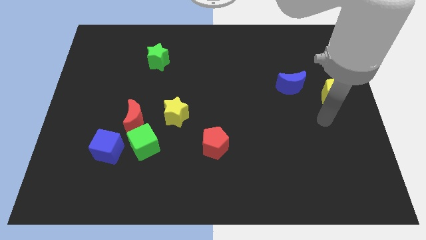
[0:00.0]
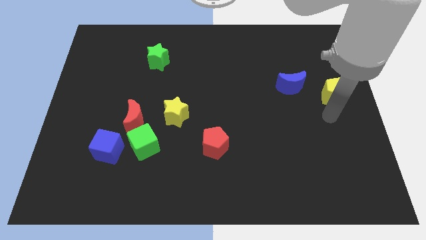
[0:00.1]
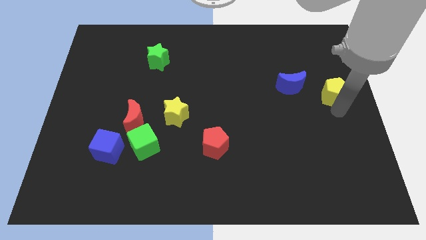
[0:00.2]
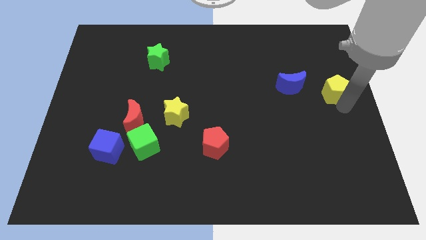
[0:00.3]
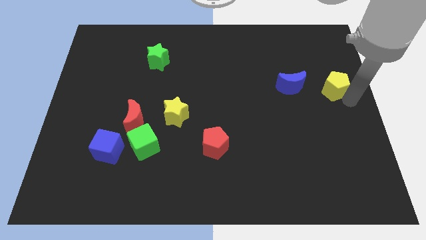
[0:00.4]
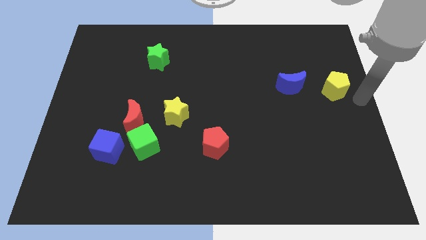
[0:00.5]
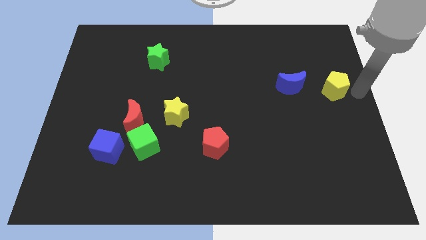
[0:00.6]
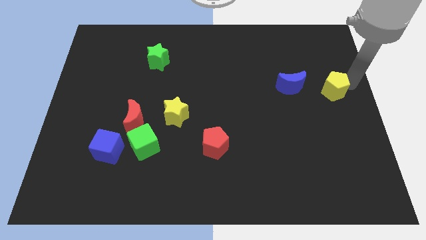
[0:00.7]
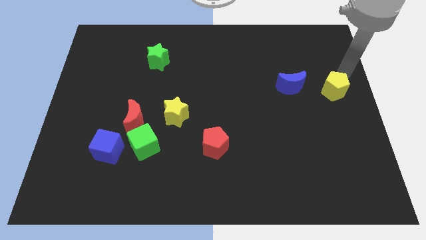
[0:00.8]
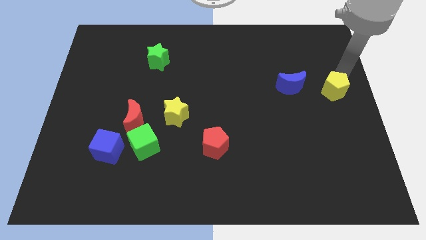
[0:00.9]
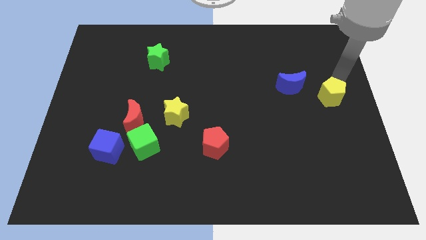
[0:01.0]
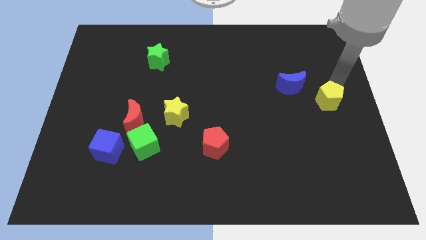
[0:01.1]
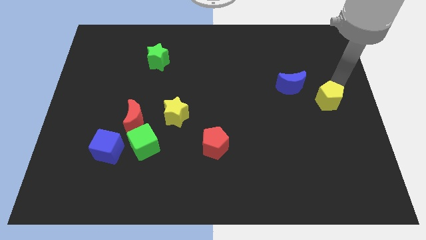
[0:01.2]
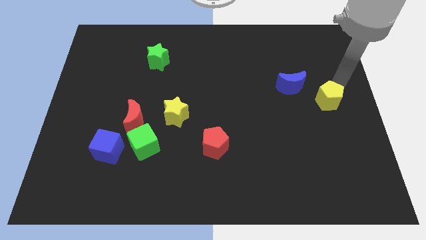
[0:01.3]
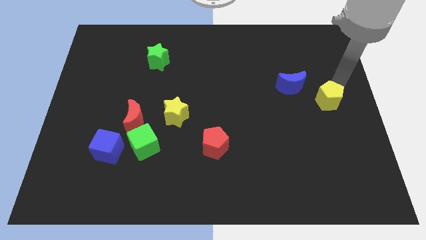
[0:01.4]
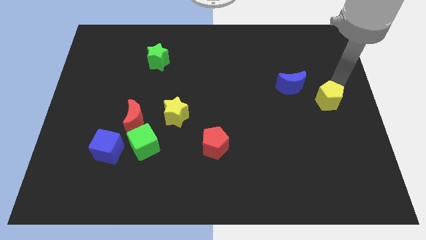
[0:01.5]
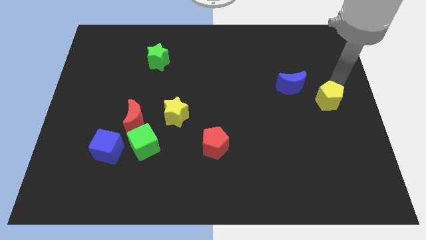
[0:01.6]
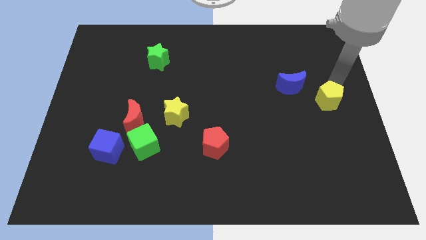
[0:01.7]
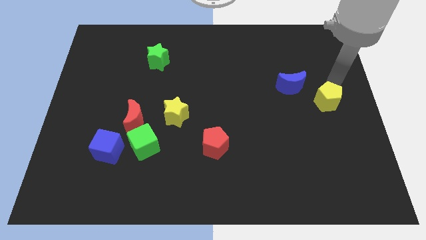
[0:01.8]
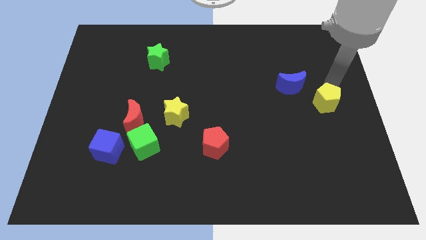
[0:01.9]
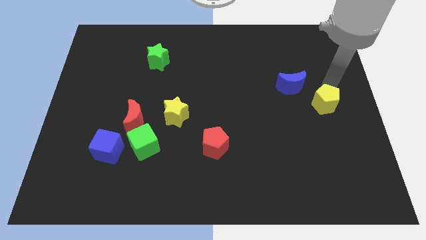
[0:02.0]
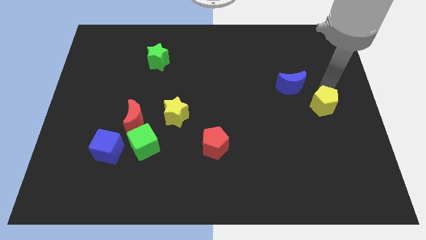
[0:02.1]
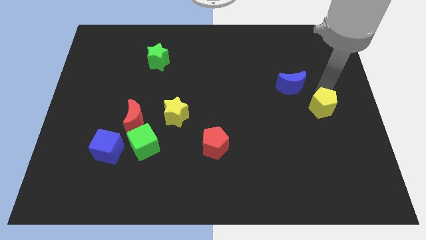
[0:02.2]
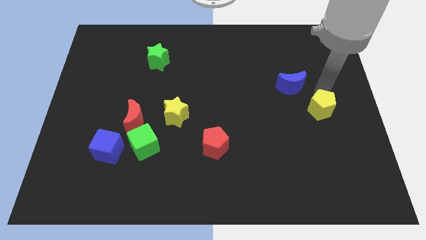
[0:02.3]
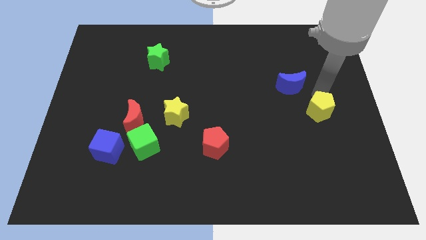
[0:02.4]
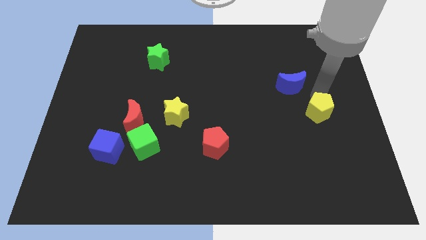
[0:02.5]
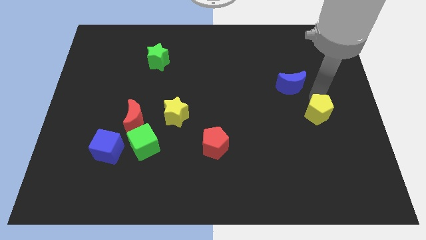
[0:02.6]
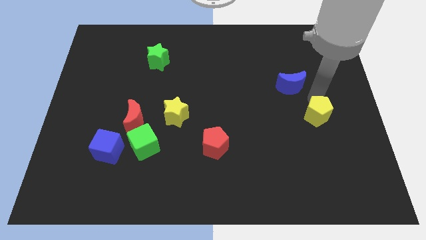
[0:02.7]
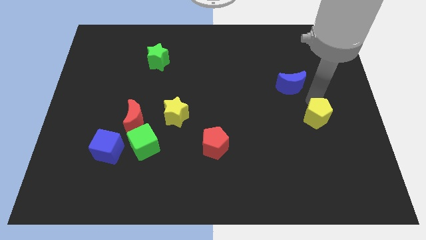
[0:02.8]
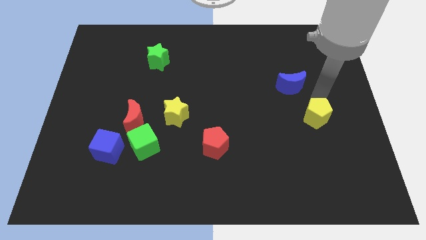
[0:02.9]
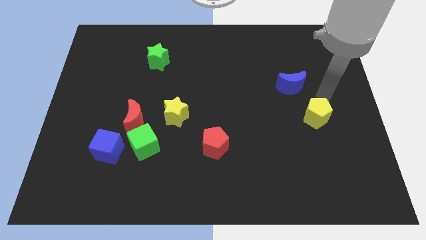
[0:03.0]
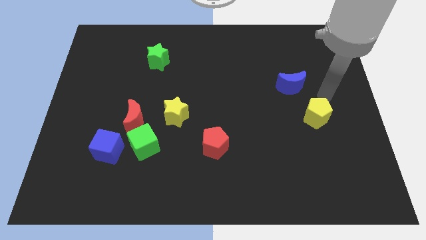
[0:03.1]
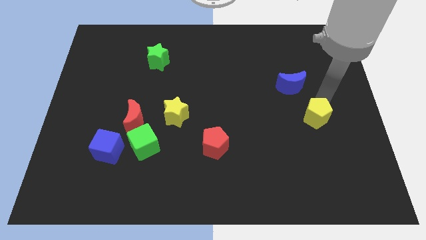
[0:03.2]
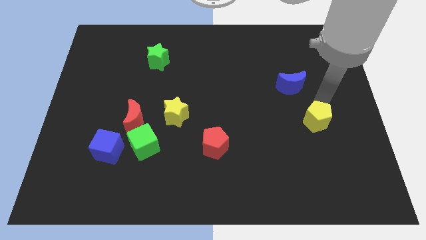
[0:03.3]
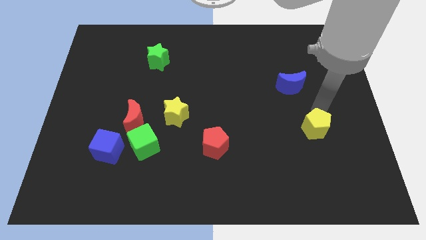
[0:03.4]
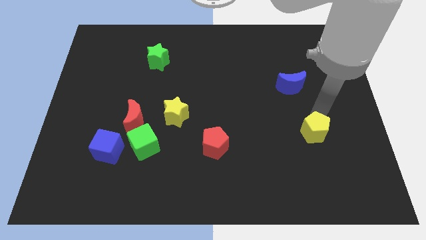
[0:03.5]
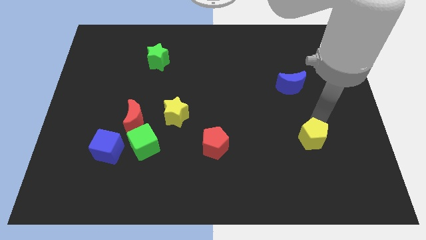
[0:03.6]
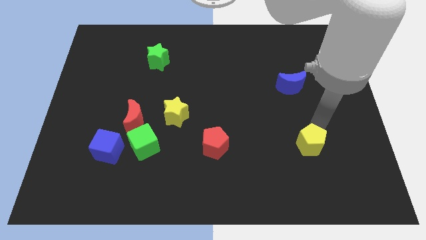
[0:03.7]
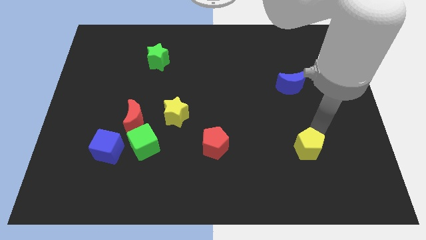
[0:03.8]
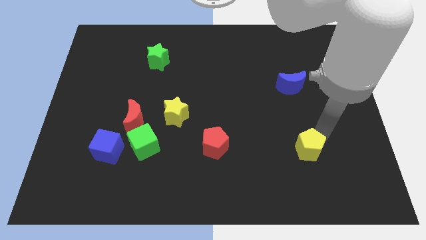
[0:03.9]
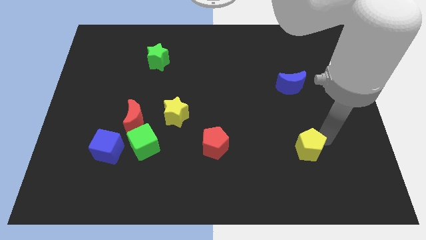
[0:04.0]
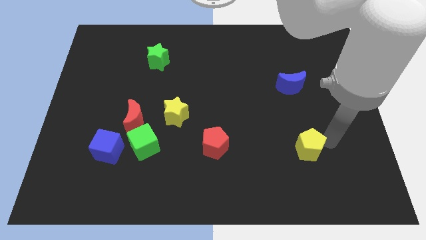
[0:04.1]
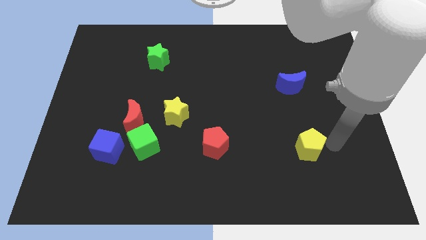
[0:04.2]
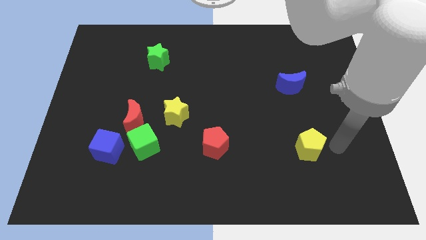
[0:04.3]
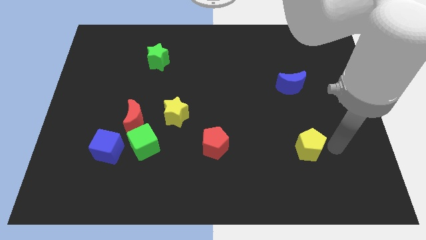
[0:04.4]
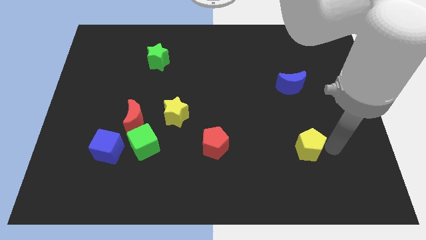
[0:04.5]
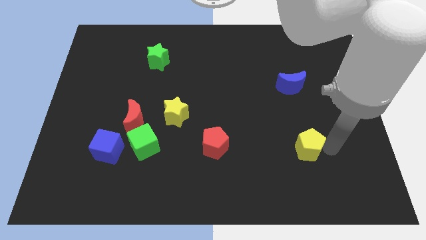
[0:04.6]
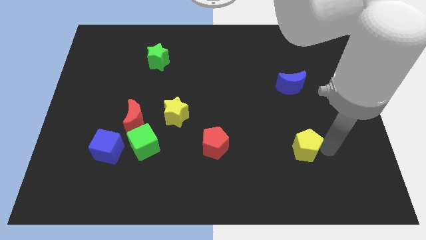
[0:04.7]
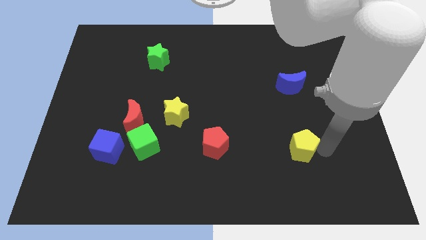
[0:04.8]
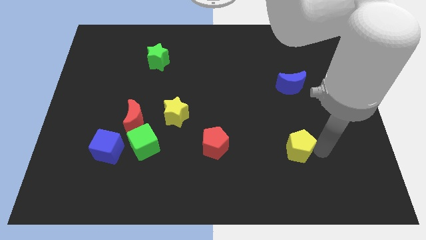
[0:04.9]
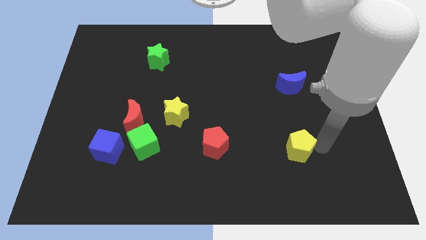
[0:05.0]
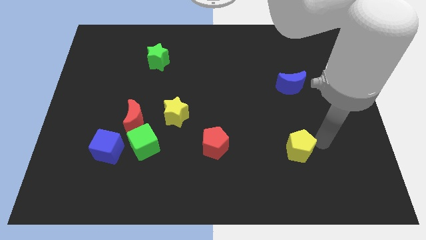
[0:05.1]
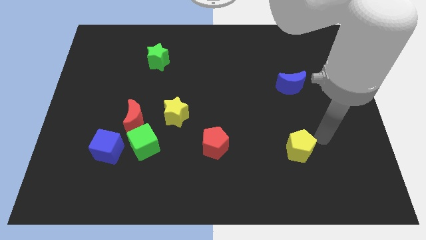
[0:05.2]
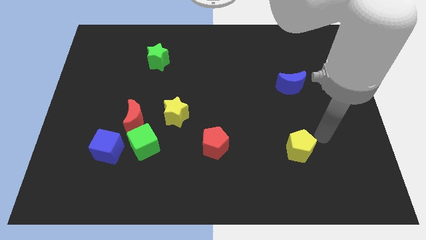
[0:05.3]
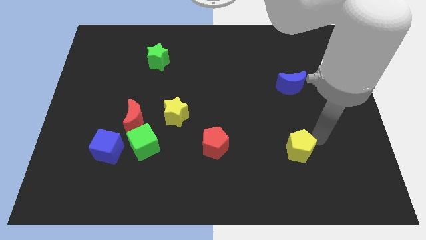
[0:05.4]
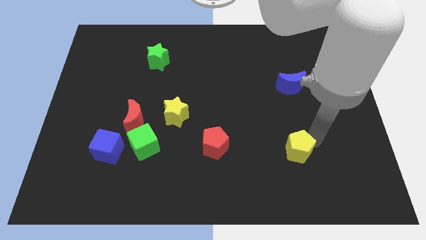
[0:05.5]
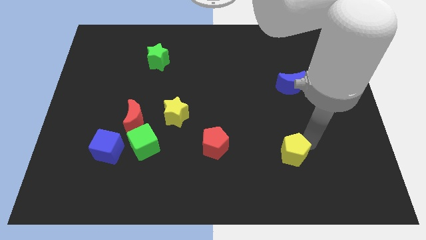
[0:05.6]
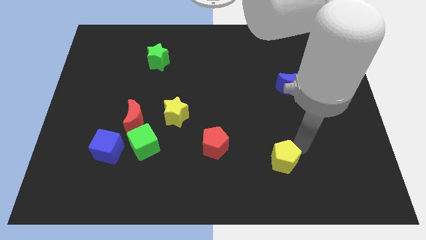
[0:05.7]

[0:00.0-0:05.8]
slide the yellow pentagon down and to the left

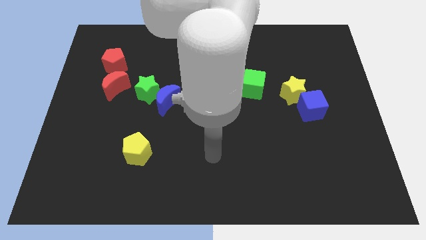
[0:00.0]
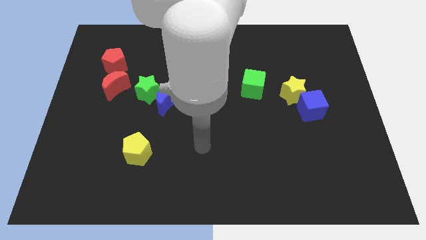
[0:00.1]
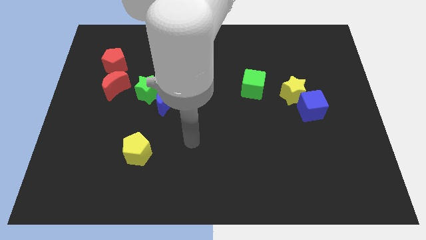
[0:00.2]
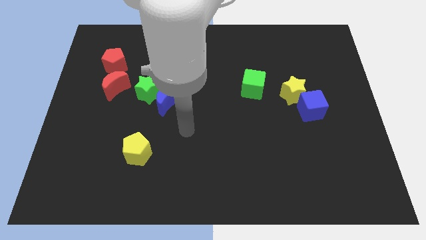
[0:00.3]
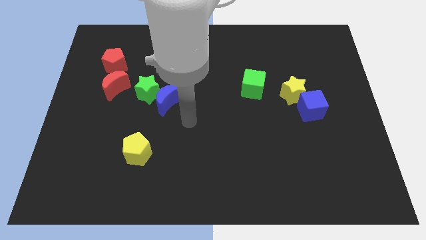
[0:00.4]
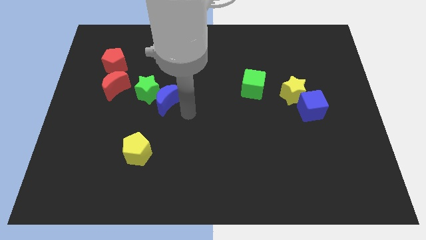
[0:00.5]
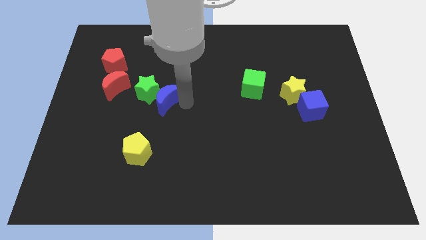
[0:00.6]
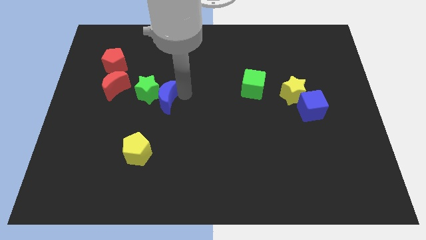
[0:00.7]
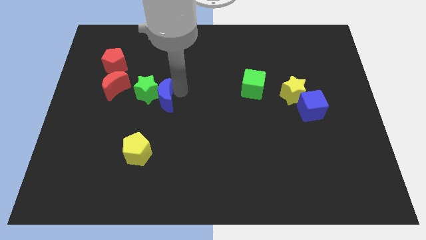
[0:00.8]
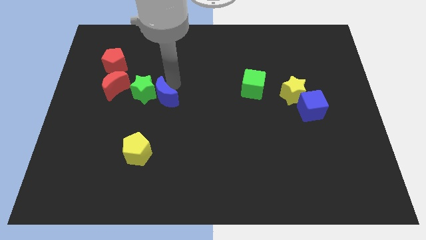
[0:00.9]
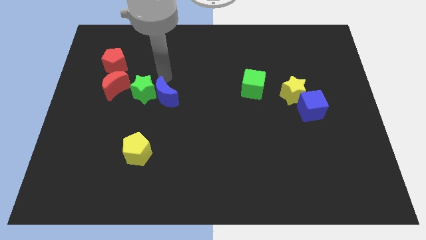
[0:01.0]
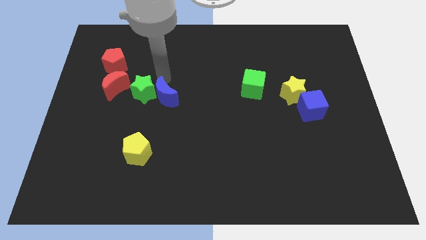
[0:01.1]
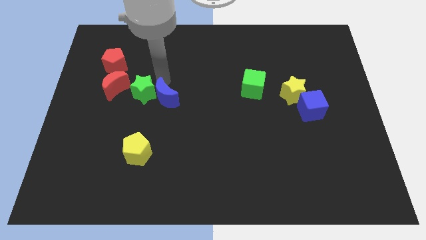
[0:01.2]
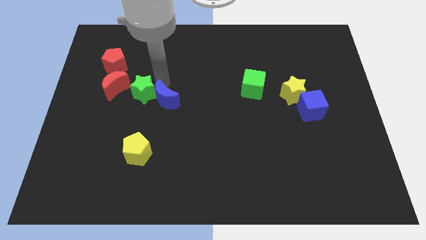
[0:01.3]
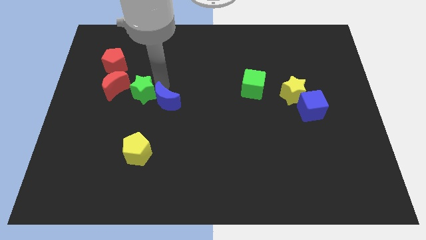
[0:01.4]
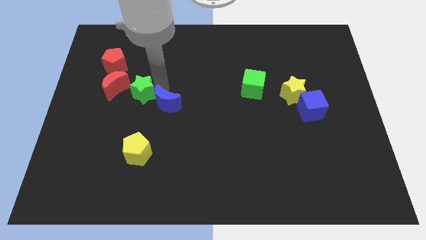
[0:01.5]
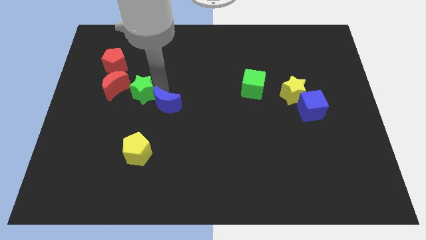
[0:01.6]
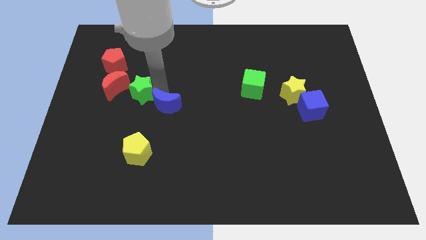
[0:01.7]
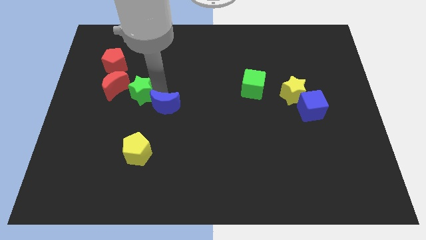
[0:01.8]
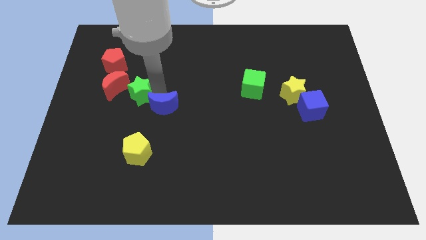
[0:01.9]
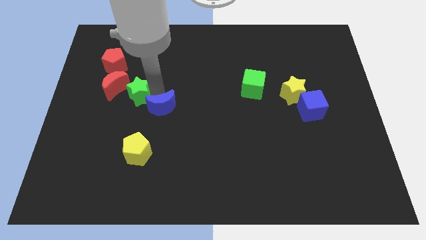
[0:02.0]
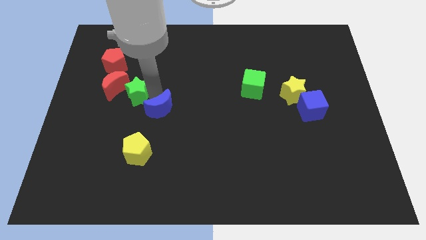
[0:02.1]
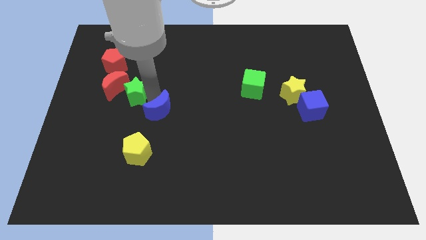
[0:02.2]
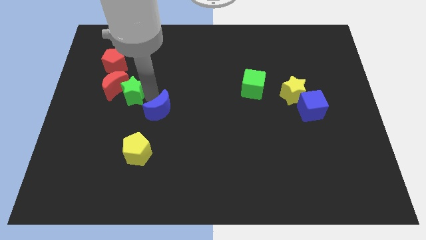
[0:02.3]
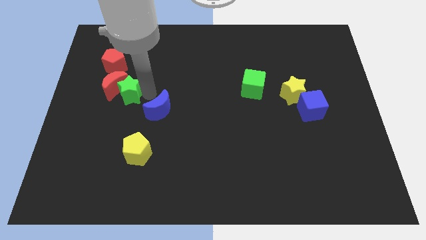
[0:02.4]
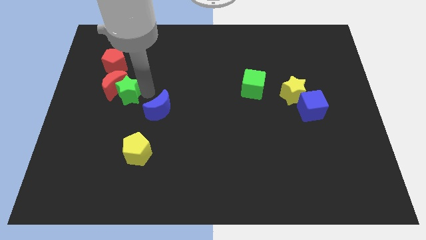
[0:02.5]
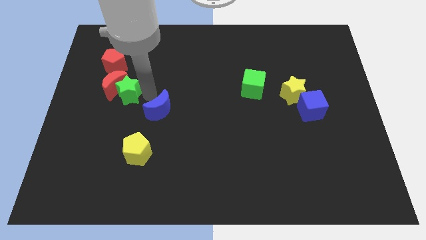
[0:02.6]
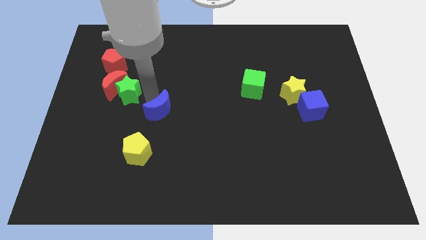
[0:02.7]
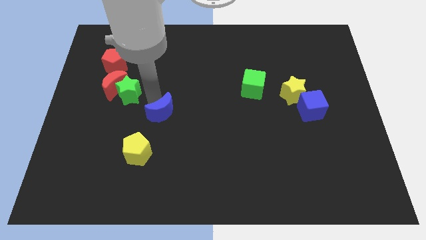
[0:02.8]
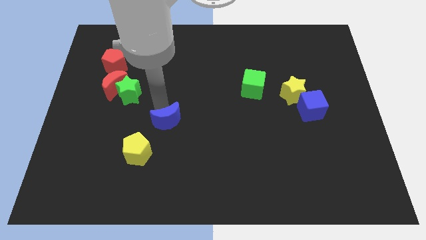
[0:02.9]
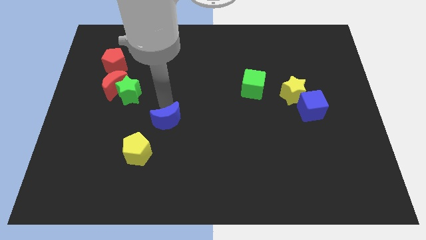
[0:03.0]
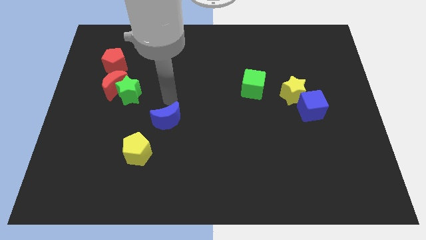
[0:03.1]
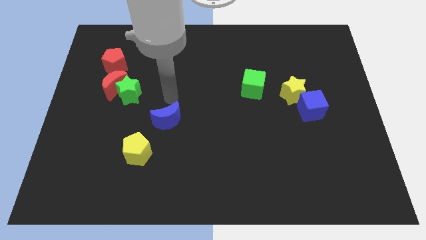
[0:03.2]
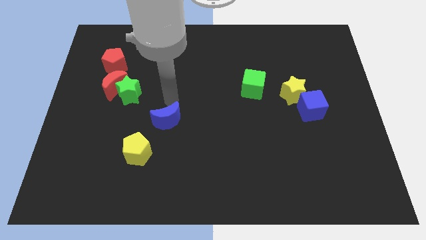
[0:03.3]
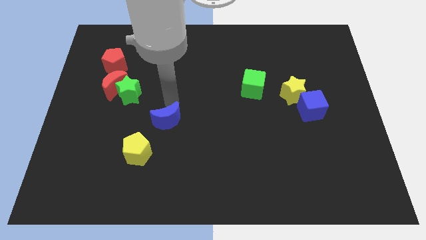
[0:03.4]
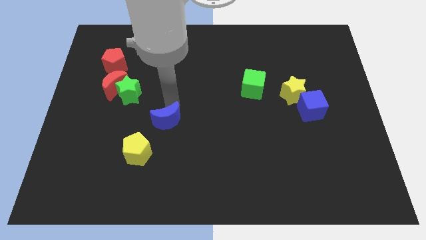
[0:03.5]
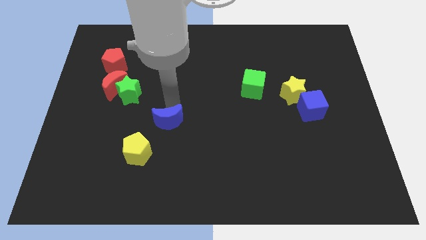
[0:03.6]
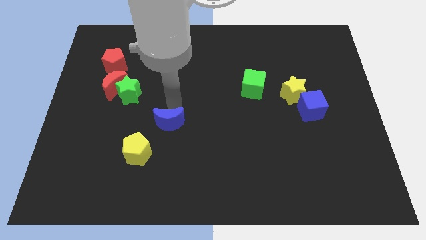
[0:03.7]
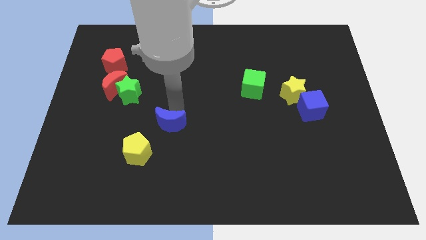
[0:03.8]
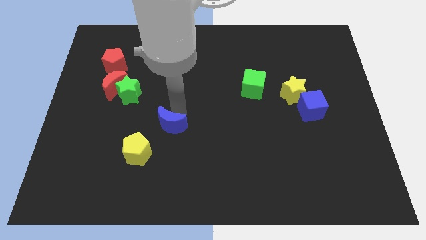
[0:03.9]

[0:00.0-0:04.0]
push the blue moon slightly downwards
